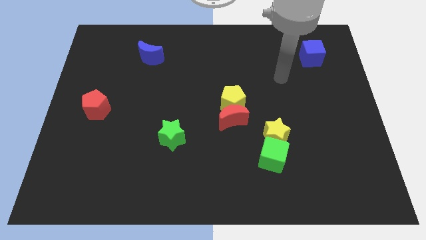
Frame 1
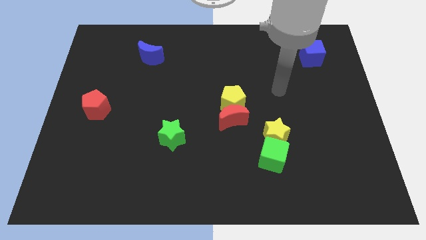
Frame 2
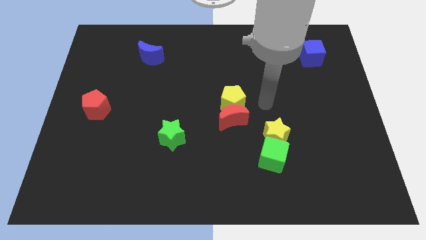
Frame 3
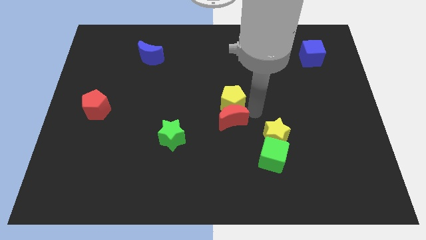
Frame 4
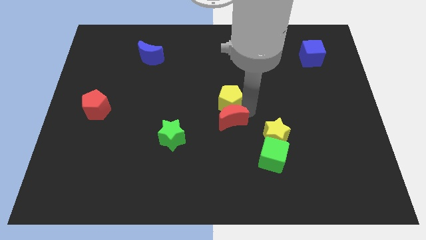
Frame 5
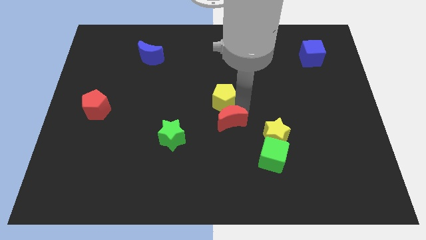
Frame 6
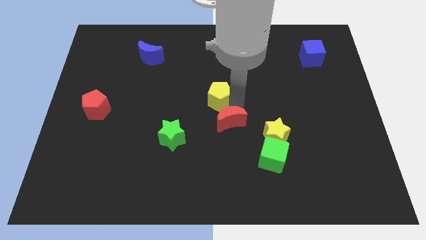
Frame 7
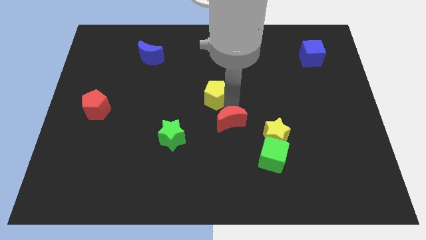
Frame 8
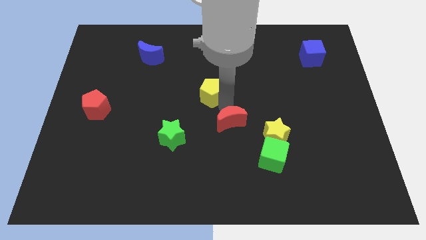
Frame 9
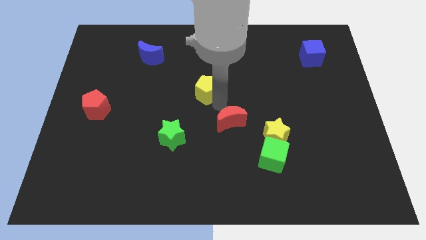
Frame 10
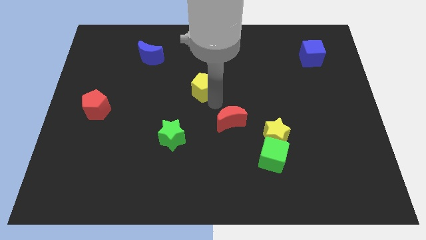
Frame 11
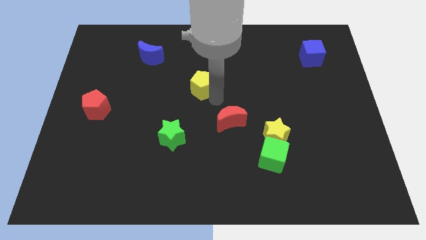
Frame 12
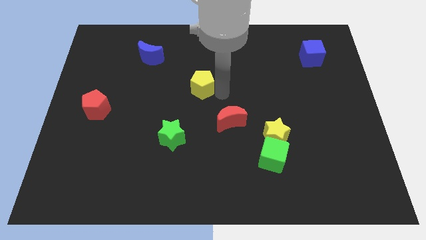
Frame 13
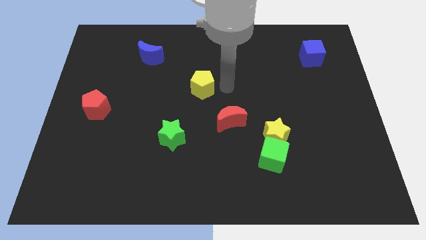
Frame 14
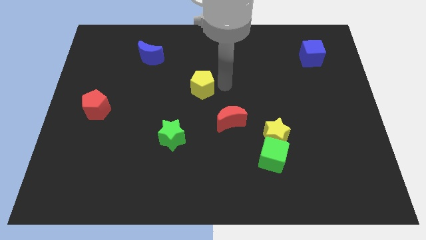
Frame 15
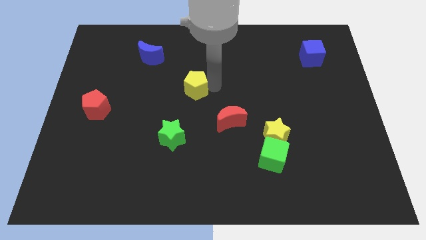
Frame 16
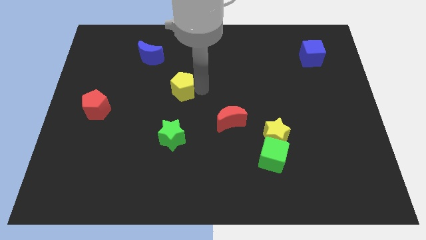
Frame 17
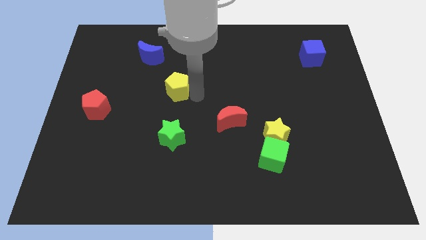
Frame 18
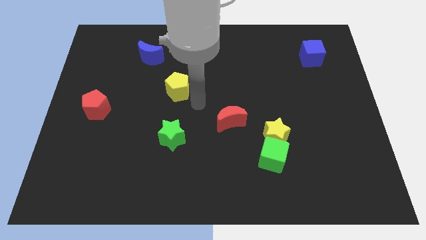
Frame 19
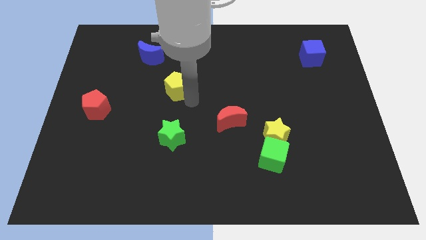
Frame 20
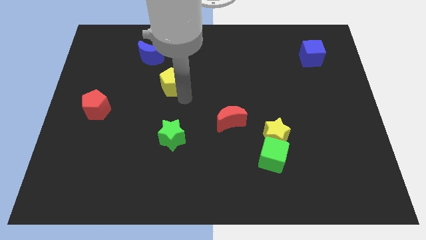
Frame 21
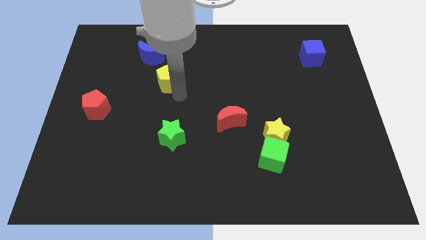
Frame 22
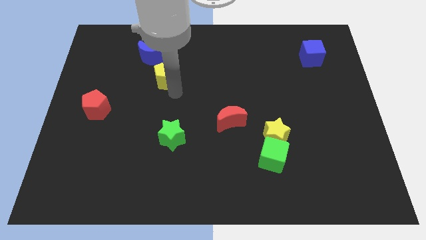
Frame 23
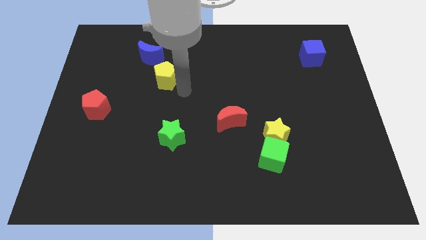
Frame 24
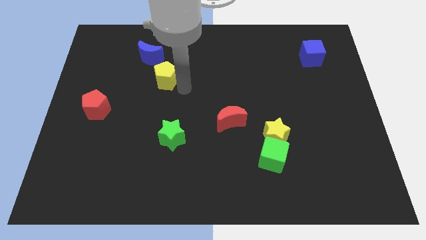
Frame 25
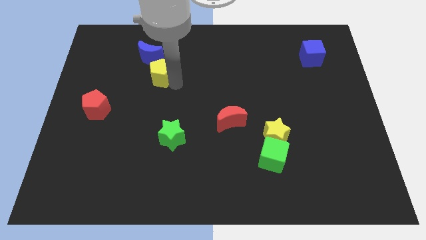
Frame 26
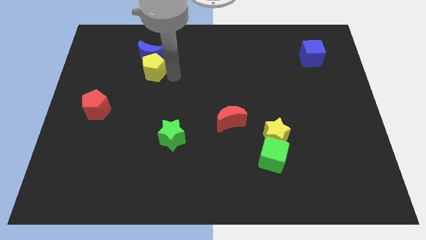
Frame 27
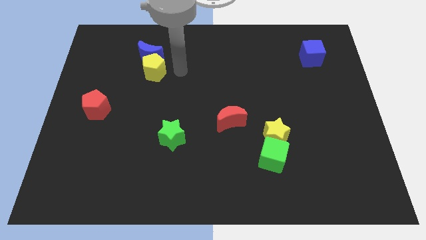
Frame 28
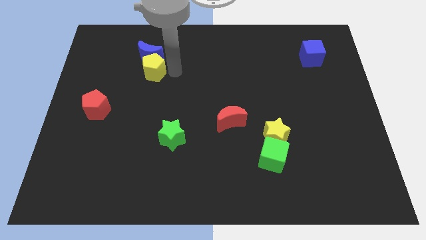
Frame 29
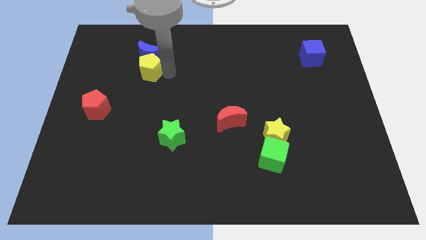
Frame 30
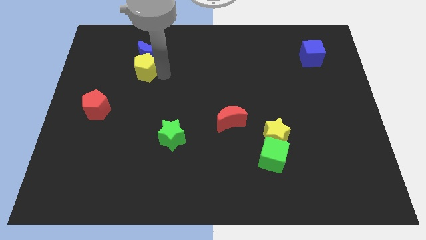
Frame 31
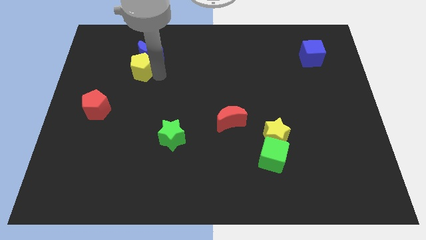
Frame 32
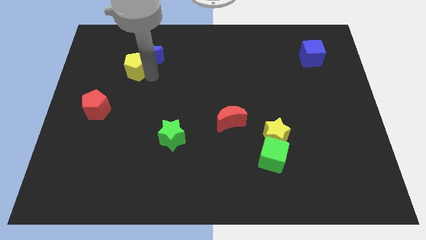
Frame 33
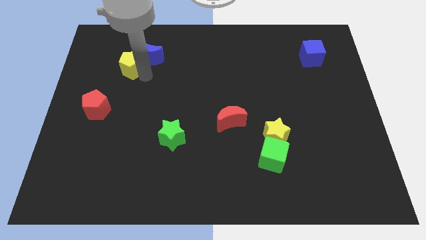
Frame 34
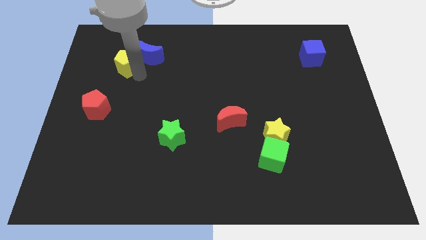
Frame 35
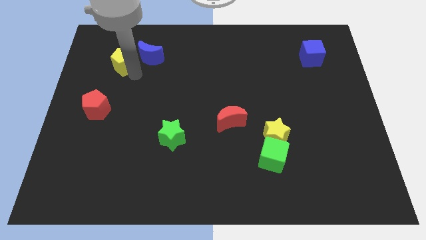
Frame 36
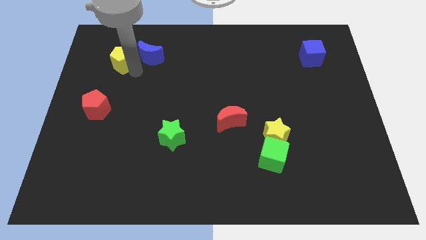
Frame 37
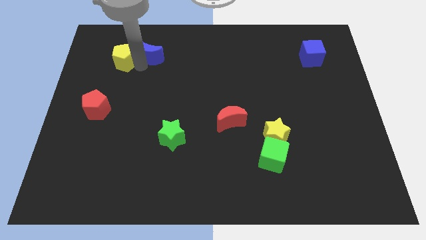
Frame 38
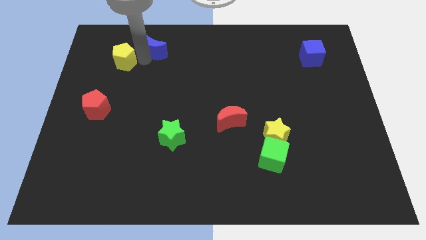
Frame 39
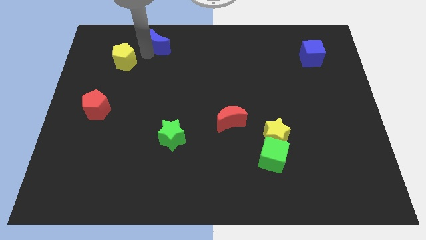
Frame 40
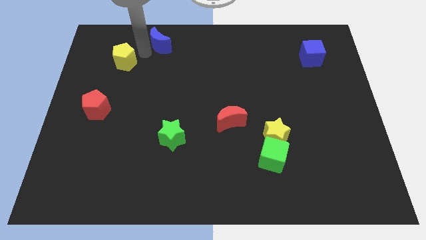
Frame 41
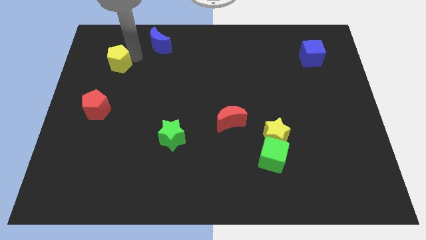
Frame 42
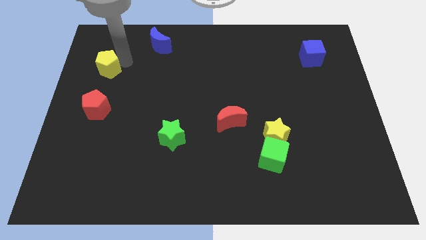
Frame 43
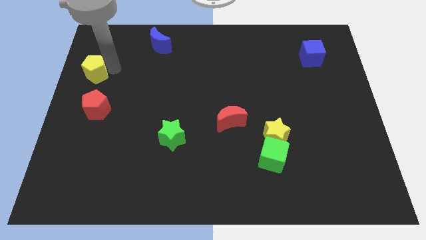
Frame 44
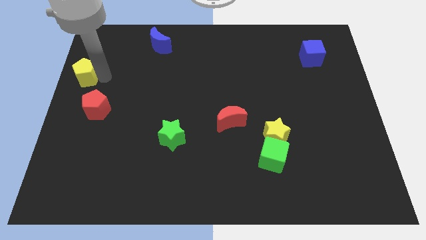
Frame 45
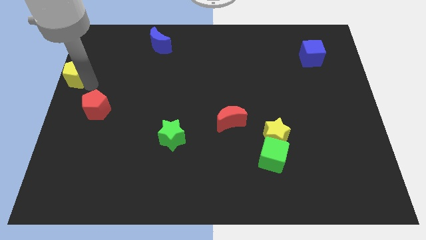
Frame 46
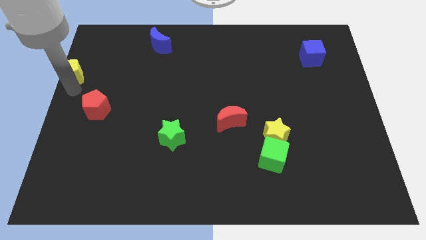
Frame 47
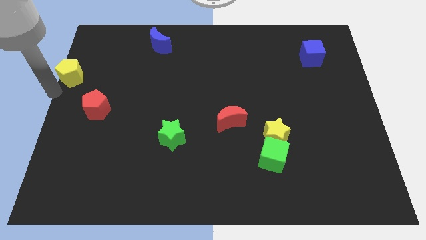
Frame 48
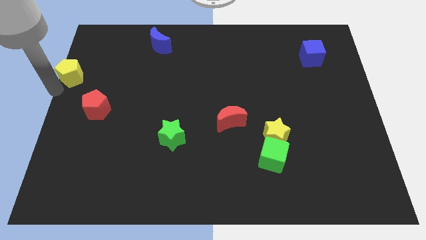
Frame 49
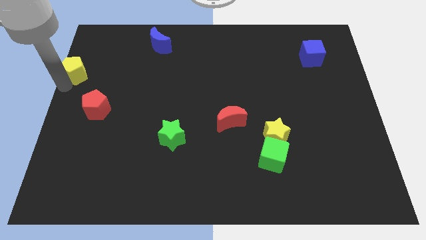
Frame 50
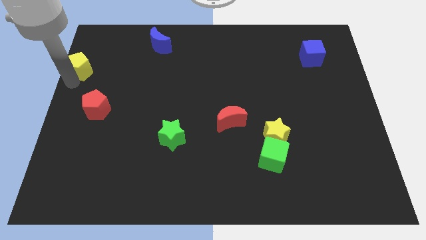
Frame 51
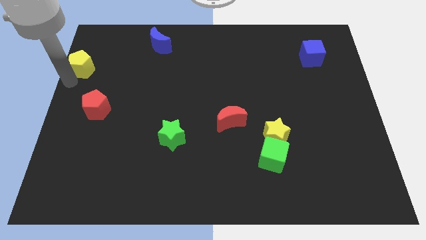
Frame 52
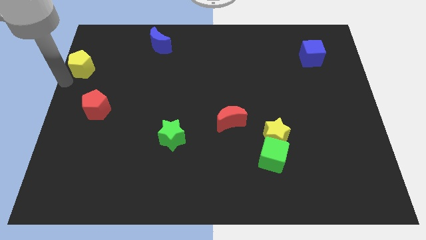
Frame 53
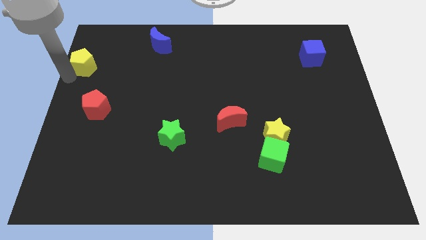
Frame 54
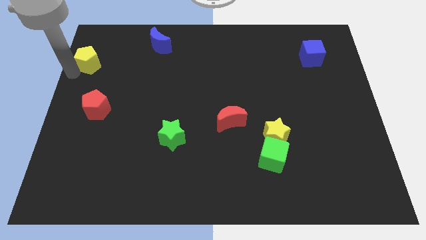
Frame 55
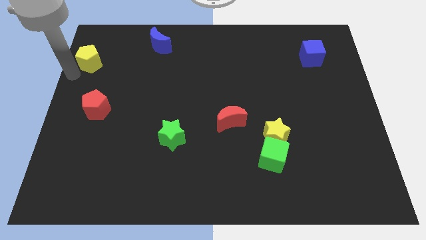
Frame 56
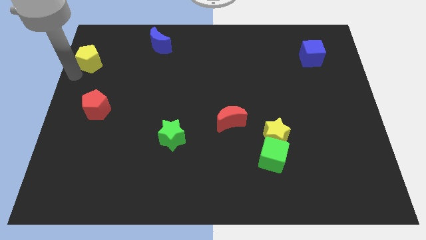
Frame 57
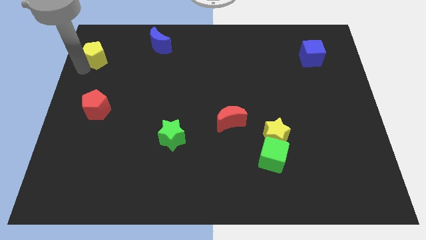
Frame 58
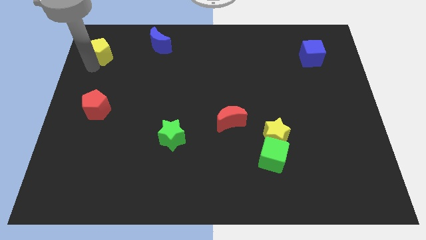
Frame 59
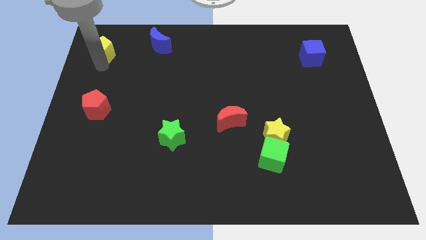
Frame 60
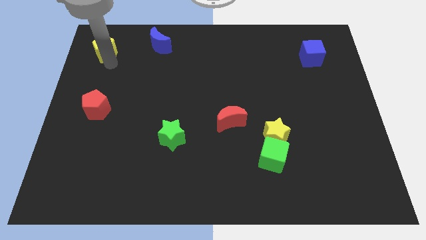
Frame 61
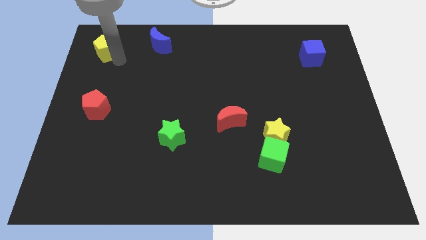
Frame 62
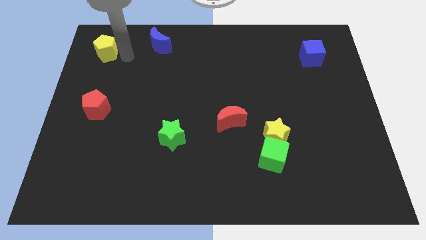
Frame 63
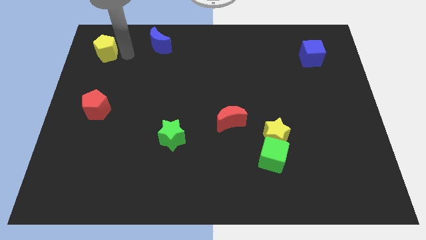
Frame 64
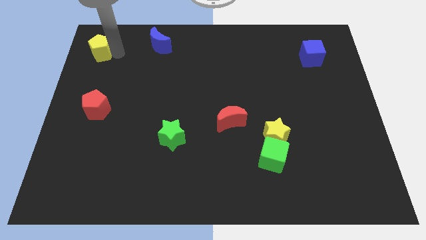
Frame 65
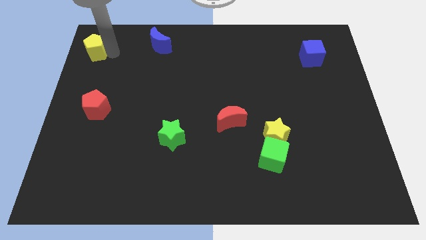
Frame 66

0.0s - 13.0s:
slide the yellow pentagon to the upper left corner
